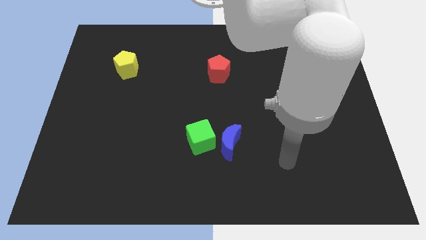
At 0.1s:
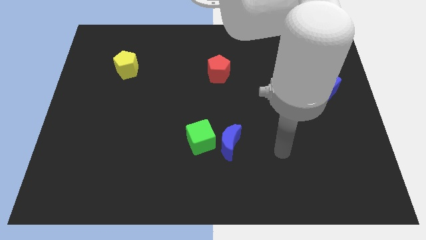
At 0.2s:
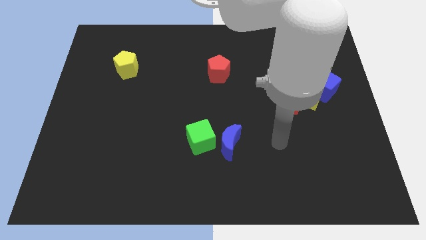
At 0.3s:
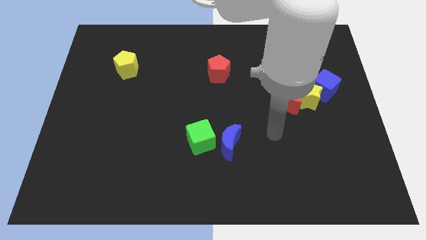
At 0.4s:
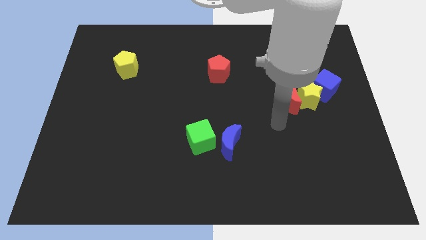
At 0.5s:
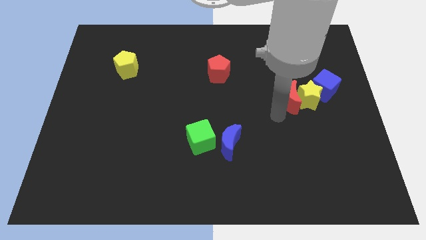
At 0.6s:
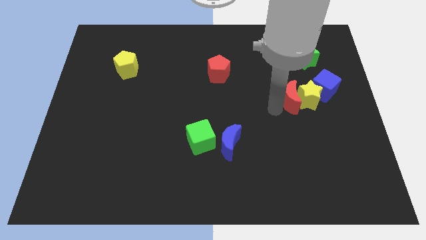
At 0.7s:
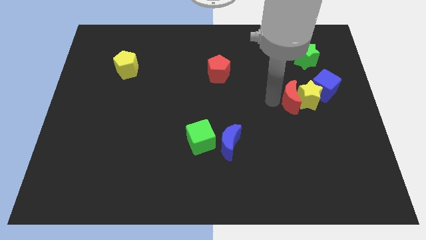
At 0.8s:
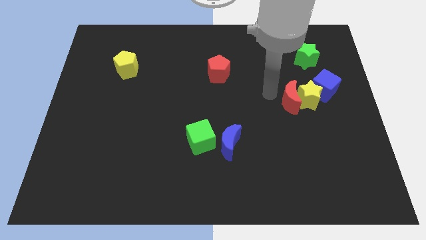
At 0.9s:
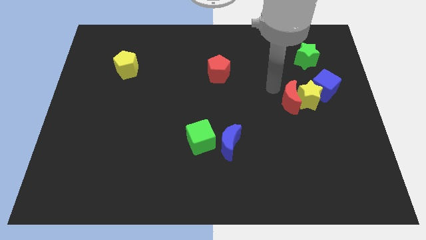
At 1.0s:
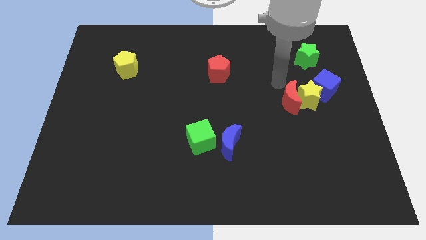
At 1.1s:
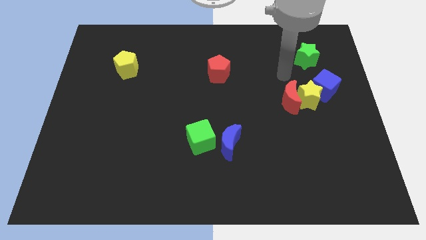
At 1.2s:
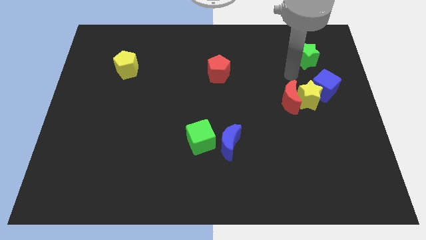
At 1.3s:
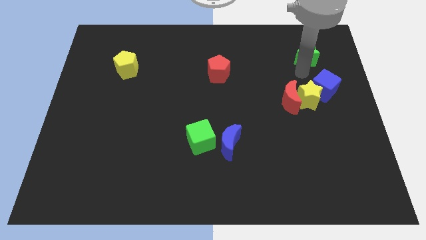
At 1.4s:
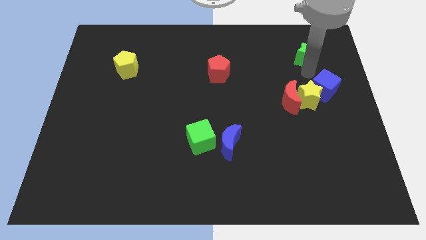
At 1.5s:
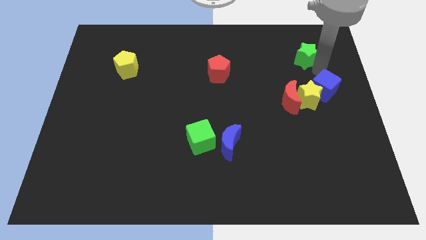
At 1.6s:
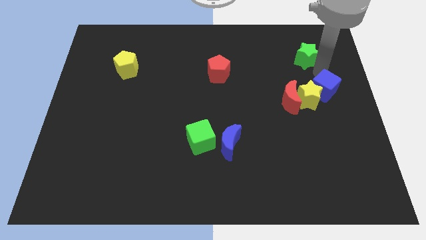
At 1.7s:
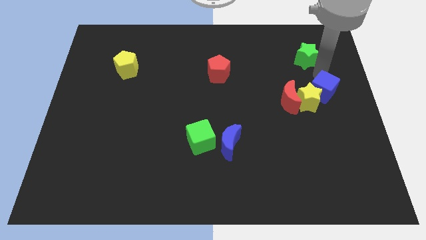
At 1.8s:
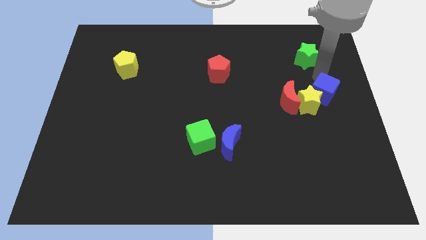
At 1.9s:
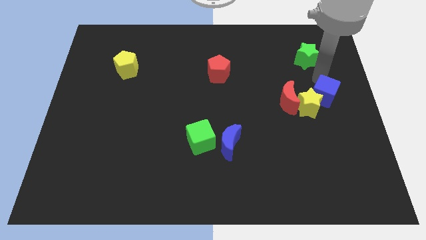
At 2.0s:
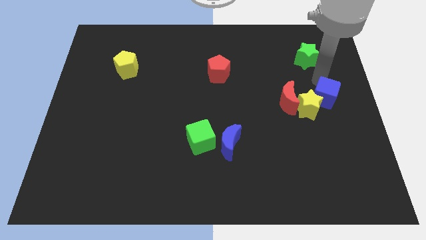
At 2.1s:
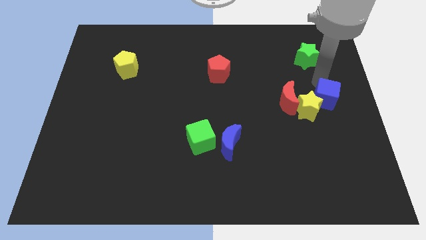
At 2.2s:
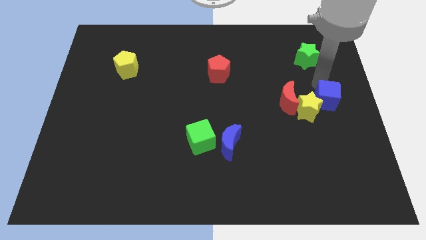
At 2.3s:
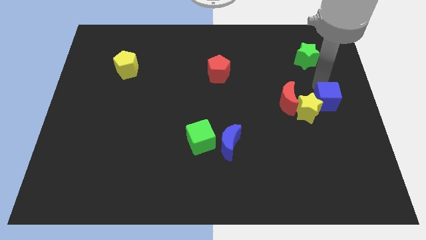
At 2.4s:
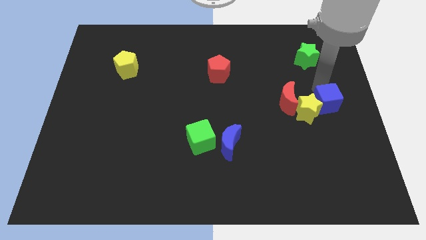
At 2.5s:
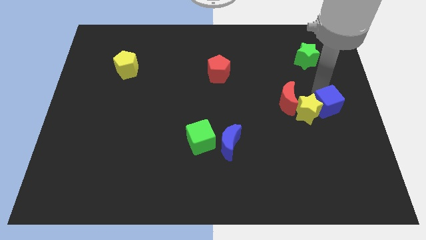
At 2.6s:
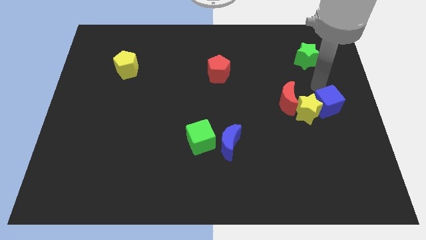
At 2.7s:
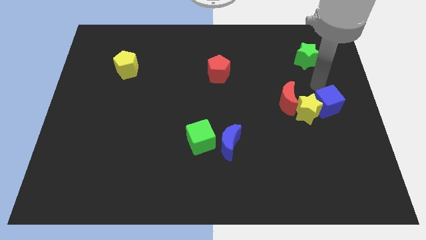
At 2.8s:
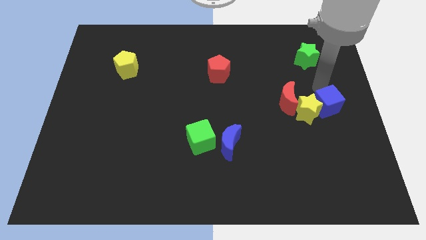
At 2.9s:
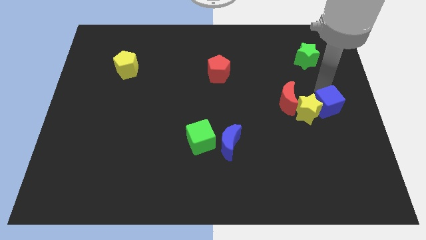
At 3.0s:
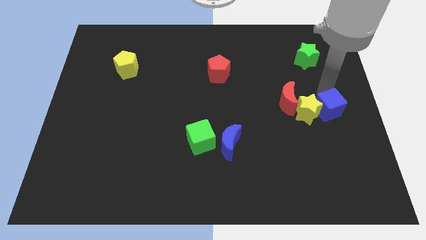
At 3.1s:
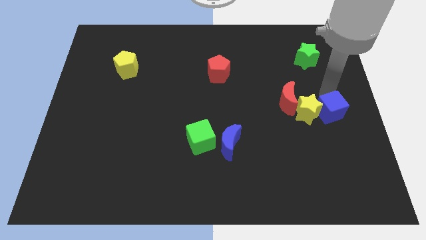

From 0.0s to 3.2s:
slide the blue cube down a little

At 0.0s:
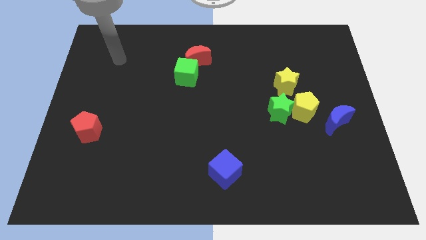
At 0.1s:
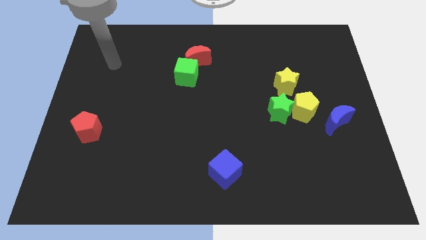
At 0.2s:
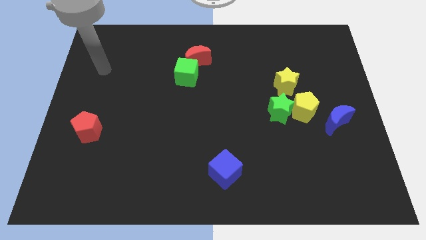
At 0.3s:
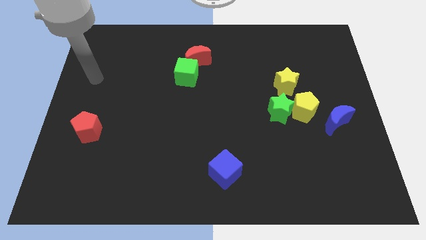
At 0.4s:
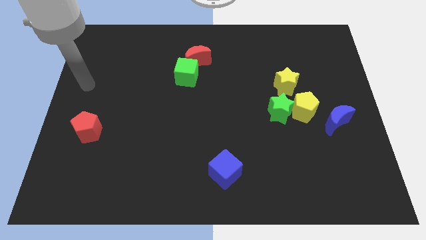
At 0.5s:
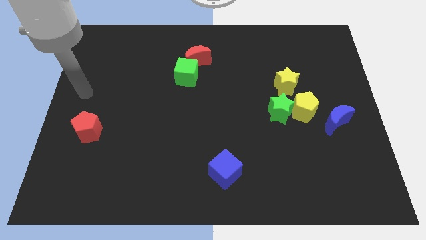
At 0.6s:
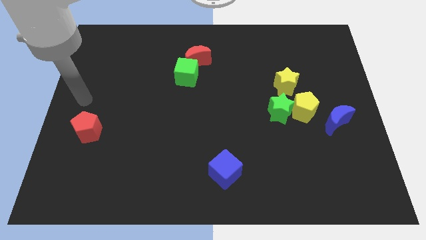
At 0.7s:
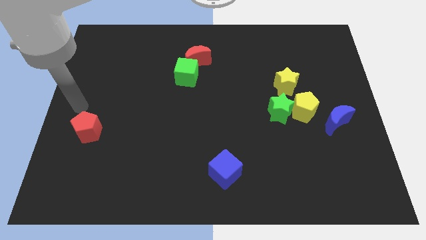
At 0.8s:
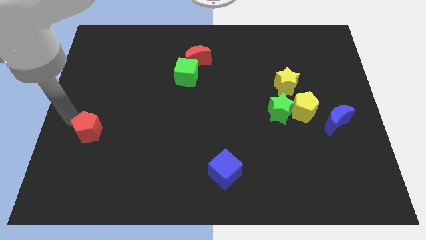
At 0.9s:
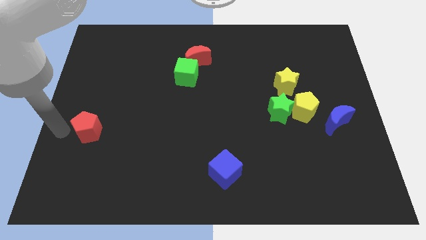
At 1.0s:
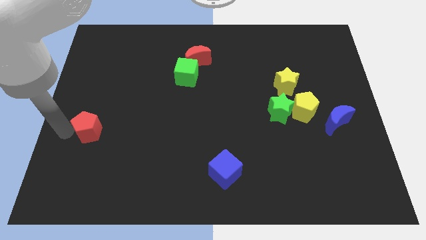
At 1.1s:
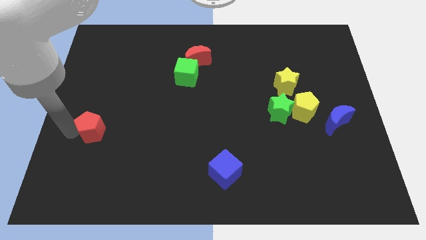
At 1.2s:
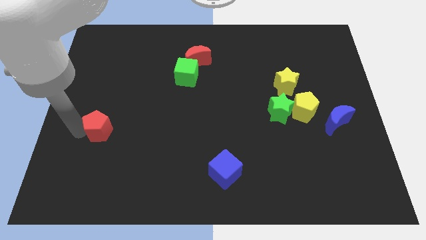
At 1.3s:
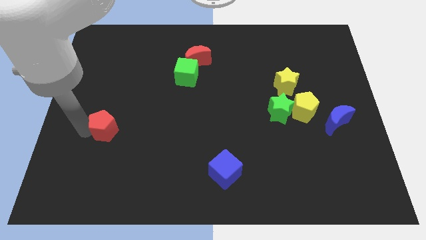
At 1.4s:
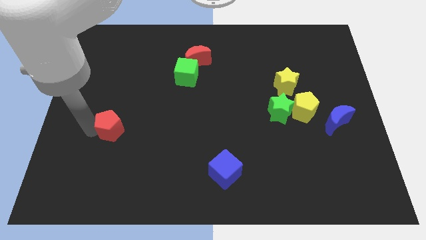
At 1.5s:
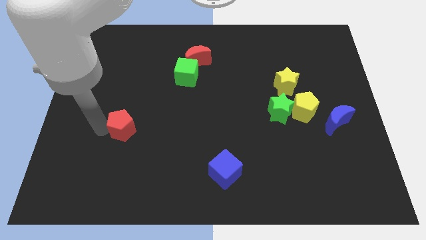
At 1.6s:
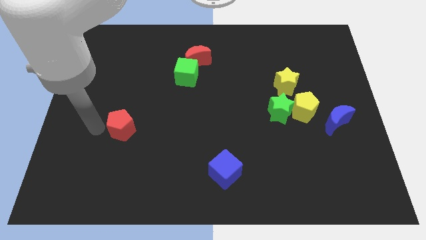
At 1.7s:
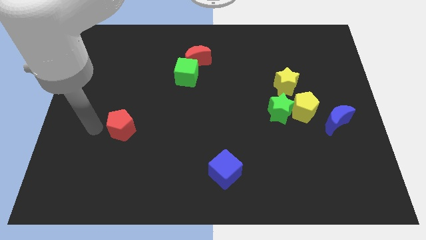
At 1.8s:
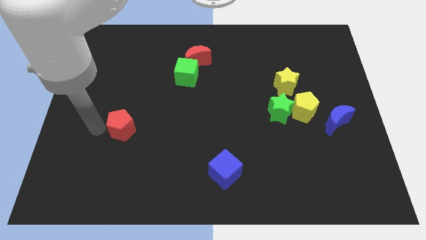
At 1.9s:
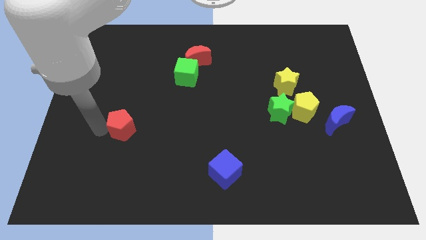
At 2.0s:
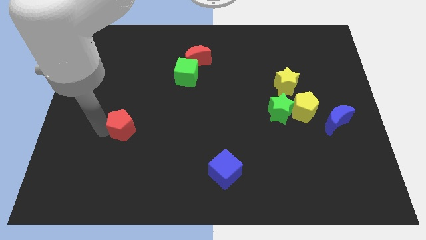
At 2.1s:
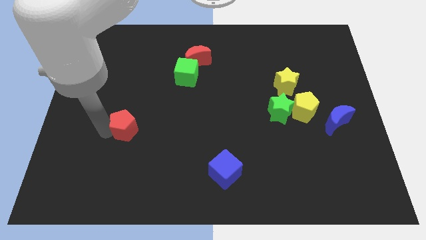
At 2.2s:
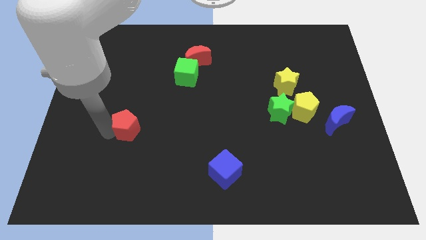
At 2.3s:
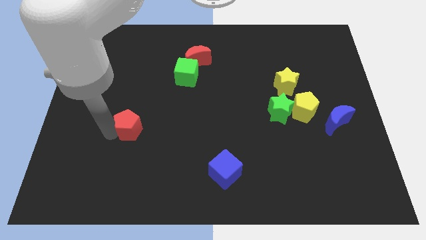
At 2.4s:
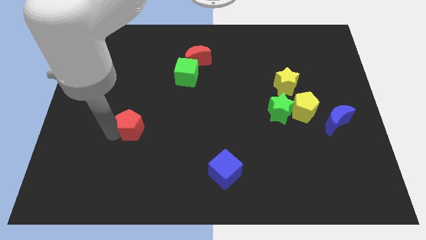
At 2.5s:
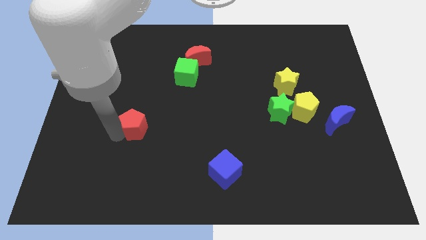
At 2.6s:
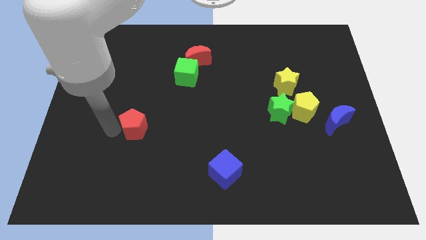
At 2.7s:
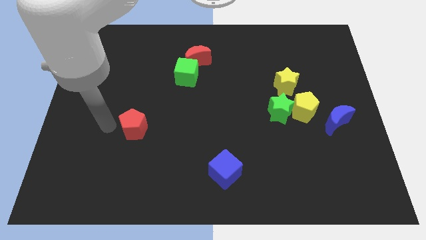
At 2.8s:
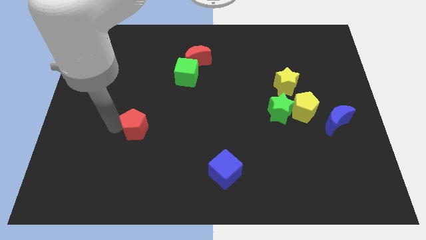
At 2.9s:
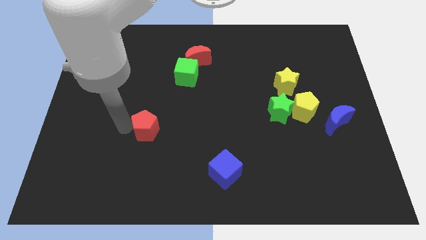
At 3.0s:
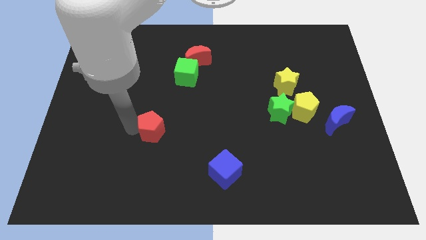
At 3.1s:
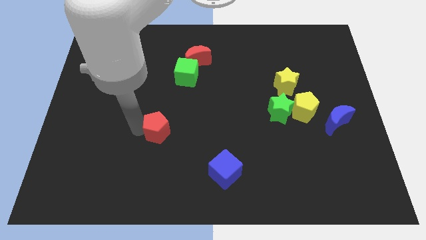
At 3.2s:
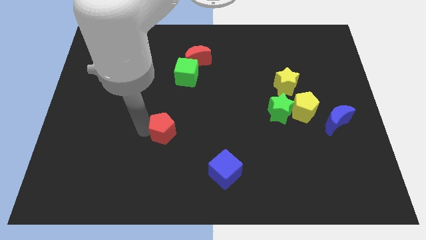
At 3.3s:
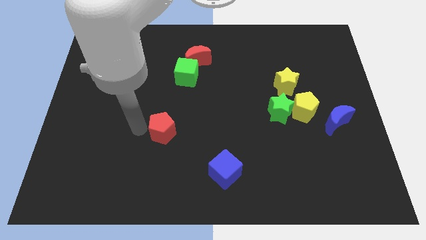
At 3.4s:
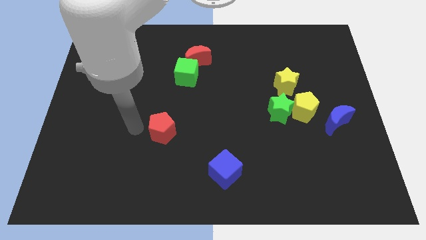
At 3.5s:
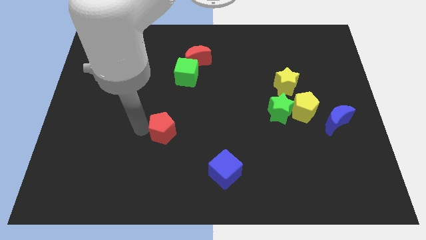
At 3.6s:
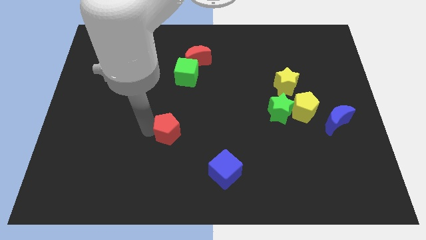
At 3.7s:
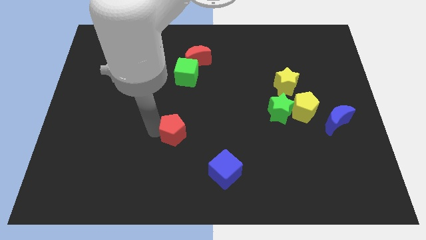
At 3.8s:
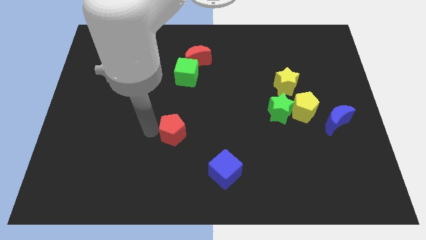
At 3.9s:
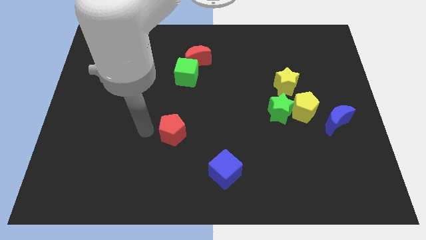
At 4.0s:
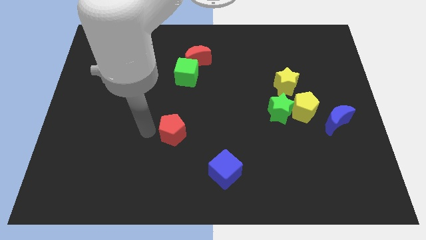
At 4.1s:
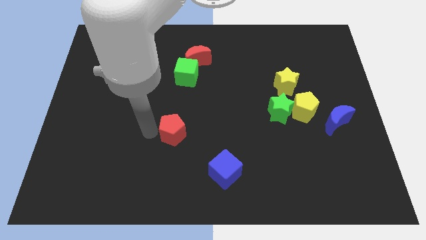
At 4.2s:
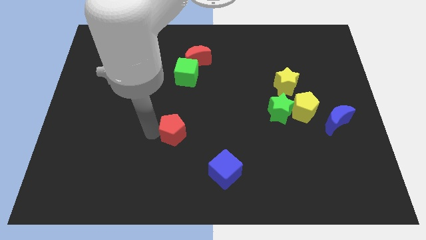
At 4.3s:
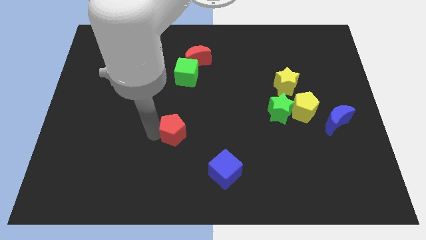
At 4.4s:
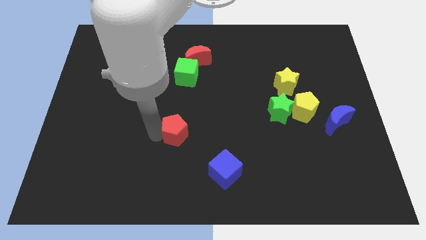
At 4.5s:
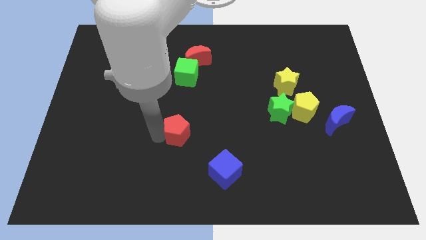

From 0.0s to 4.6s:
slide the red pentagon right
